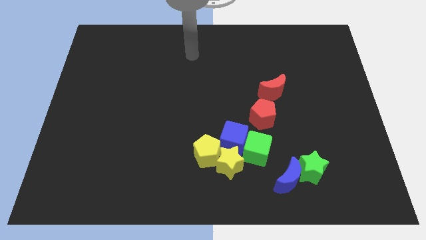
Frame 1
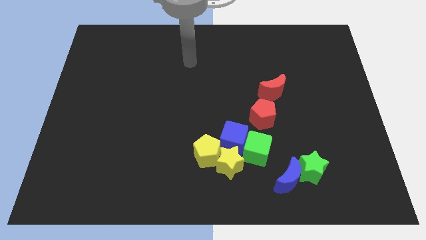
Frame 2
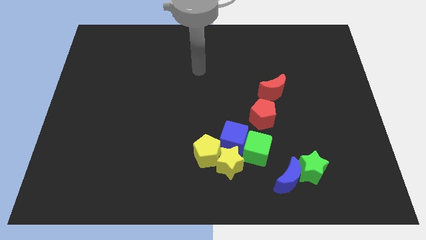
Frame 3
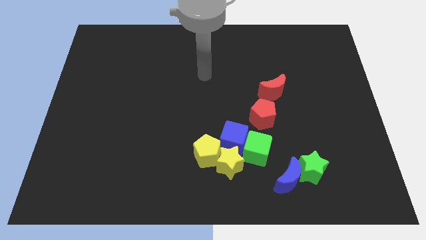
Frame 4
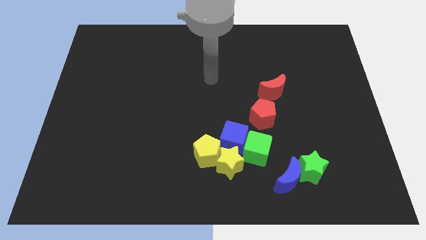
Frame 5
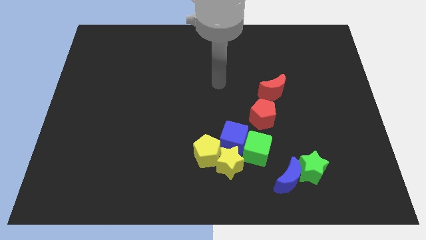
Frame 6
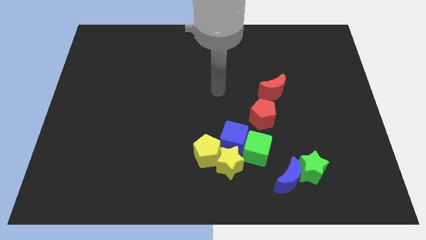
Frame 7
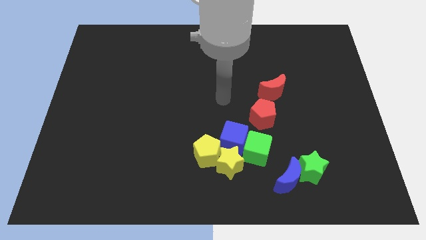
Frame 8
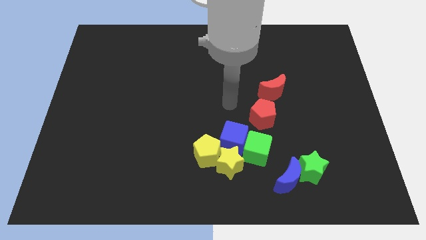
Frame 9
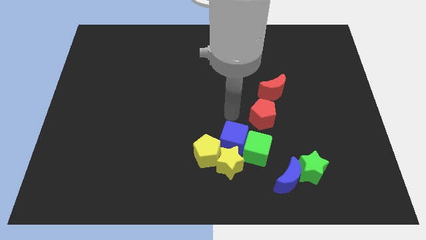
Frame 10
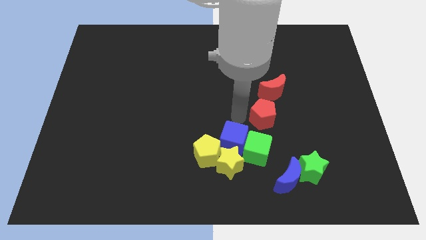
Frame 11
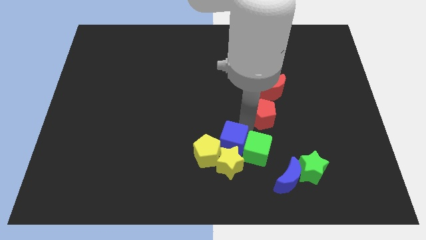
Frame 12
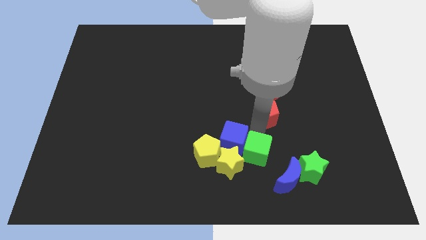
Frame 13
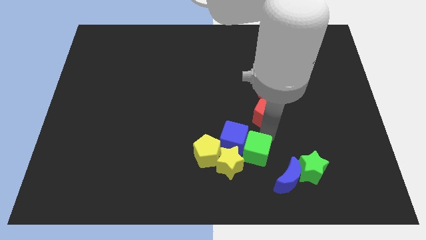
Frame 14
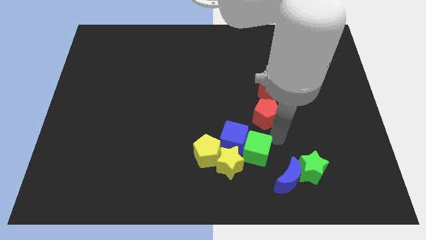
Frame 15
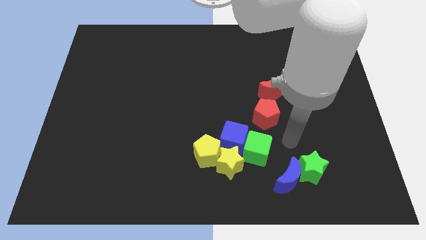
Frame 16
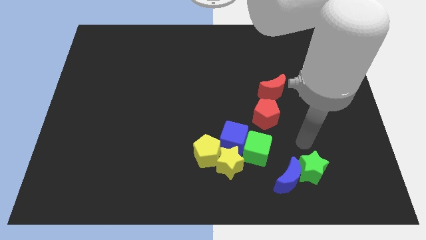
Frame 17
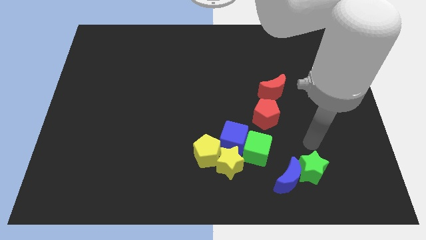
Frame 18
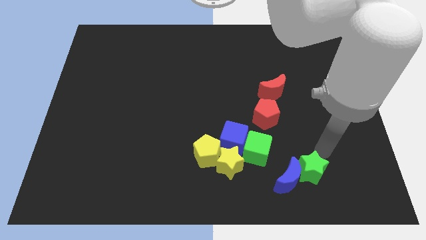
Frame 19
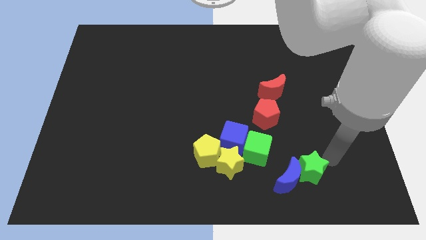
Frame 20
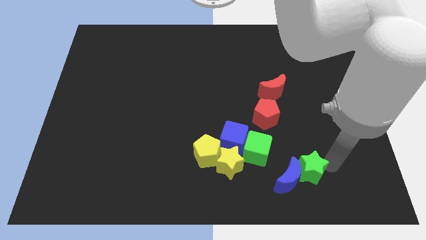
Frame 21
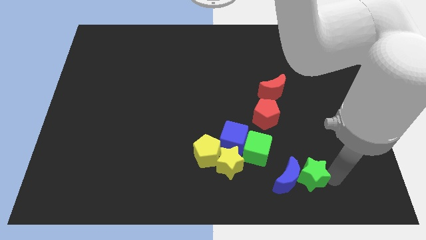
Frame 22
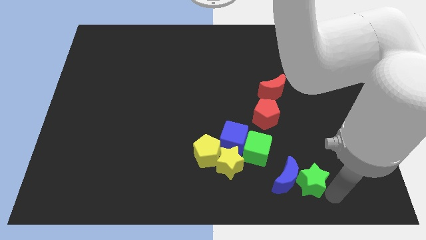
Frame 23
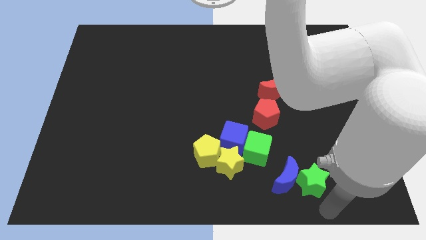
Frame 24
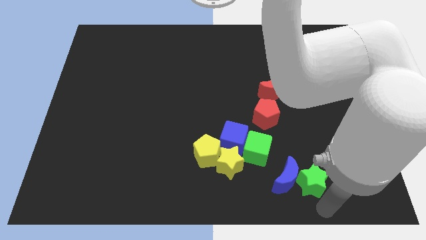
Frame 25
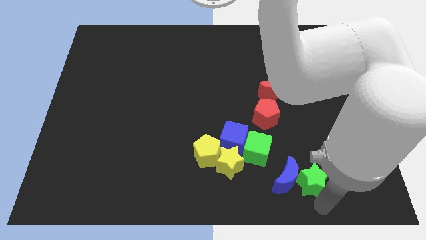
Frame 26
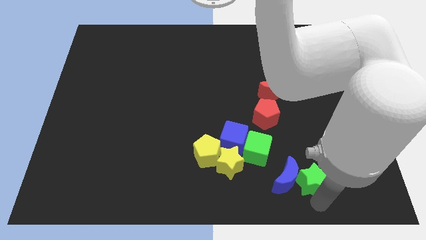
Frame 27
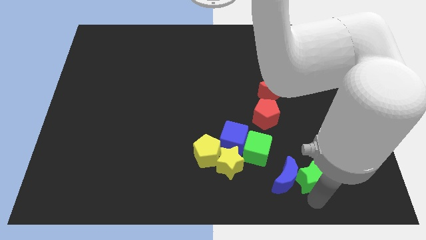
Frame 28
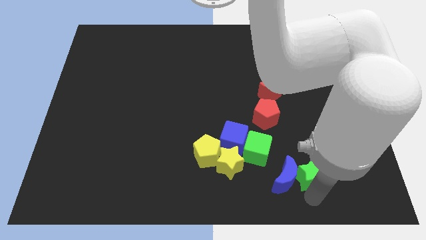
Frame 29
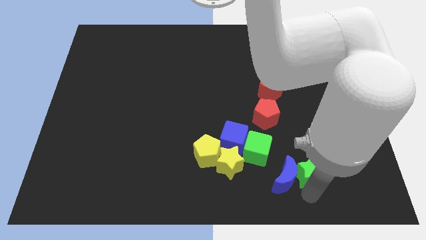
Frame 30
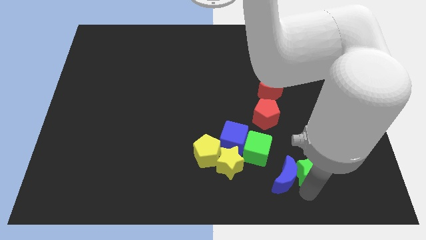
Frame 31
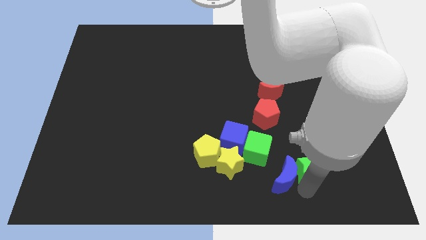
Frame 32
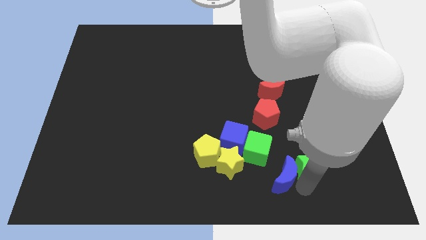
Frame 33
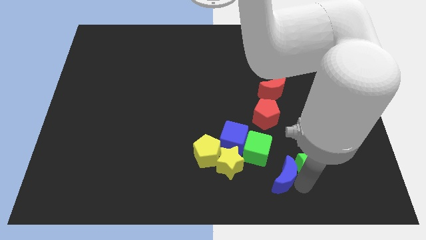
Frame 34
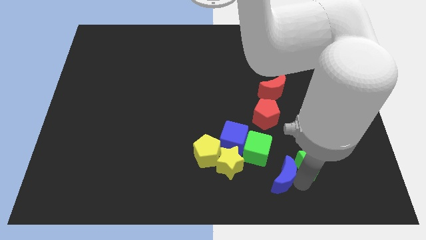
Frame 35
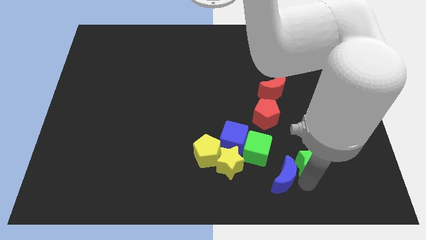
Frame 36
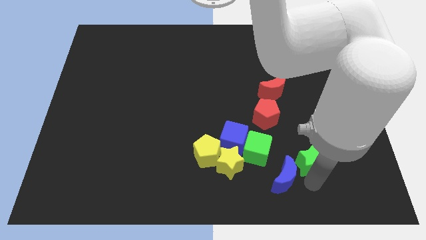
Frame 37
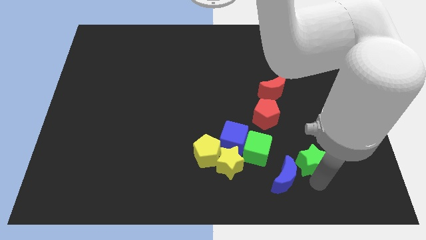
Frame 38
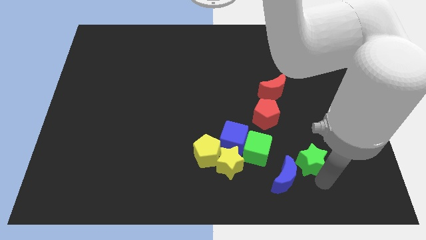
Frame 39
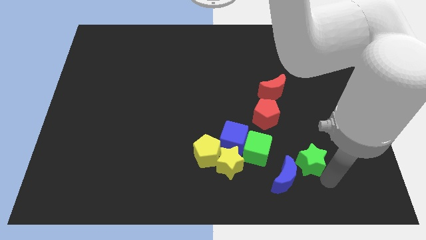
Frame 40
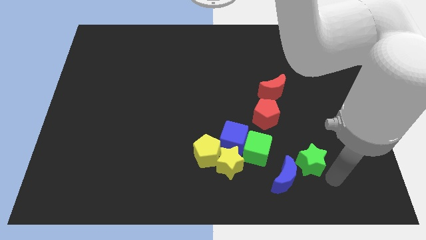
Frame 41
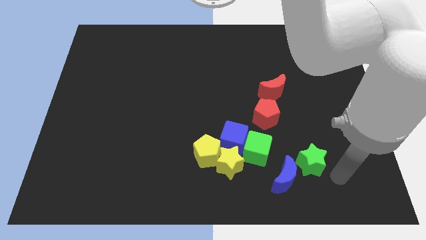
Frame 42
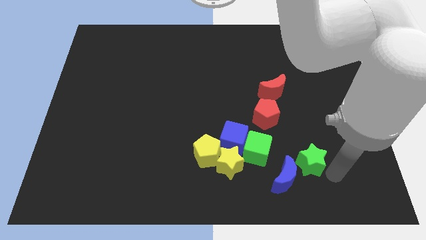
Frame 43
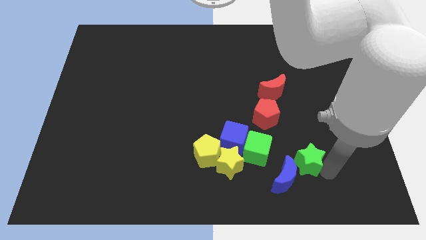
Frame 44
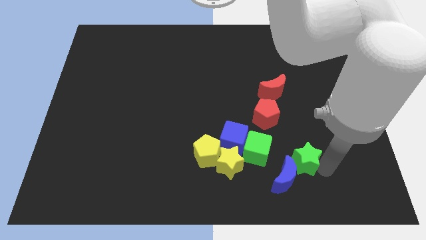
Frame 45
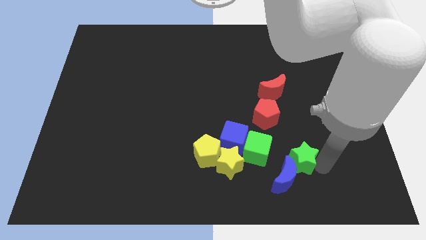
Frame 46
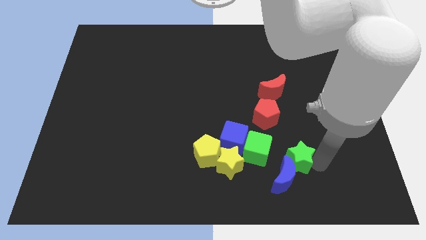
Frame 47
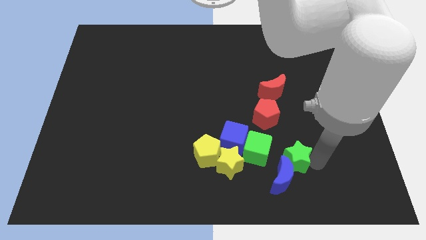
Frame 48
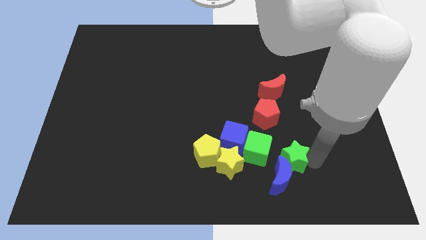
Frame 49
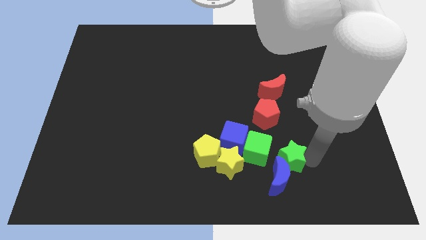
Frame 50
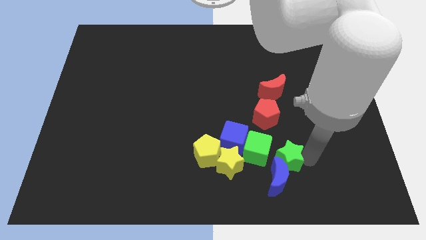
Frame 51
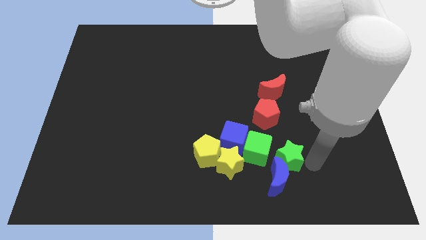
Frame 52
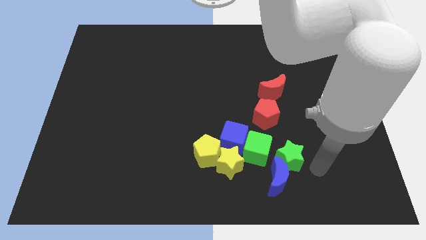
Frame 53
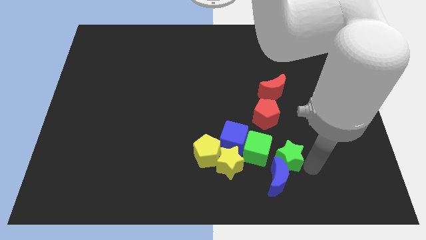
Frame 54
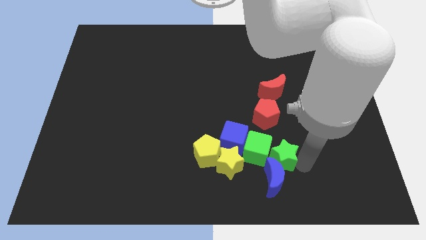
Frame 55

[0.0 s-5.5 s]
push the green star close to the green cube

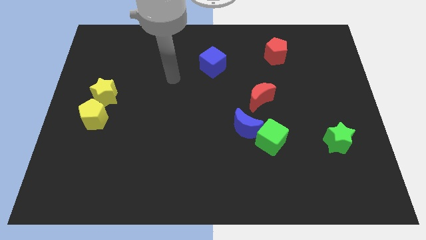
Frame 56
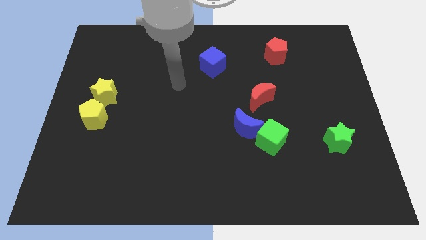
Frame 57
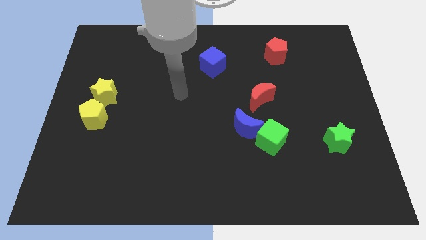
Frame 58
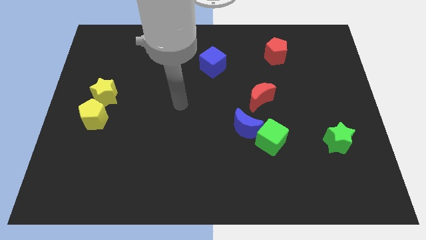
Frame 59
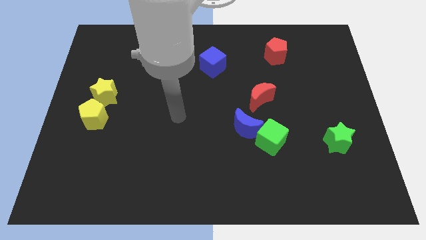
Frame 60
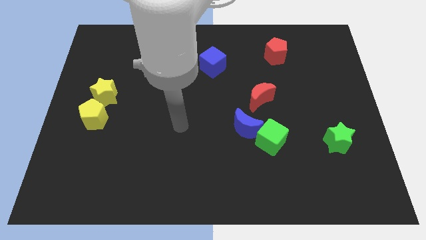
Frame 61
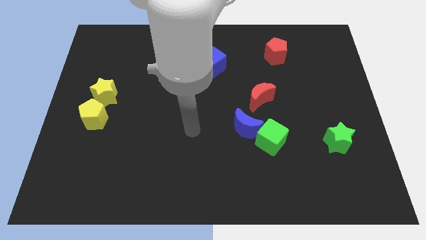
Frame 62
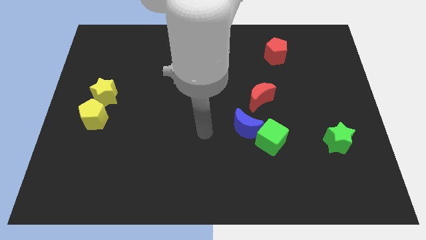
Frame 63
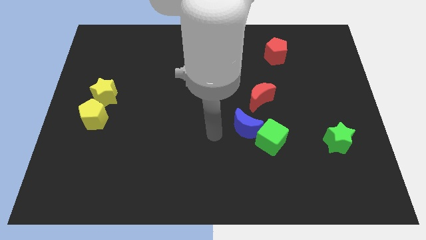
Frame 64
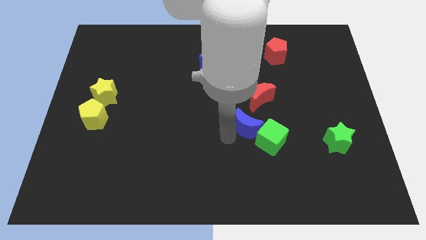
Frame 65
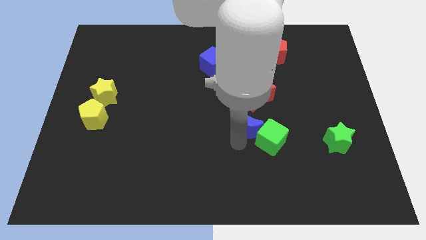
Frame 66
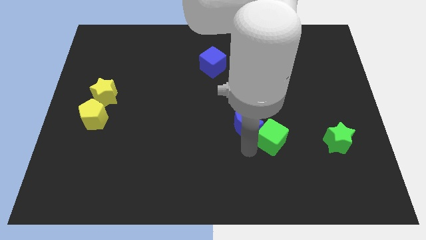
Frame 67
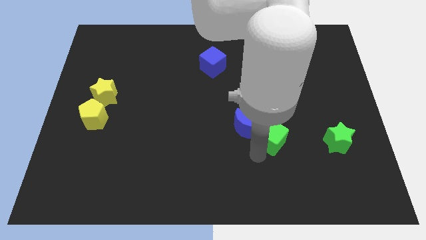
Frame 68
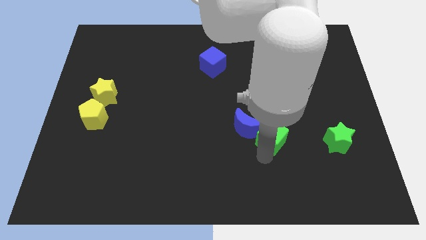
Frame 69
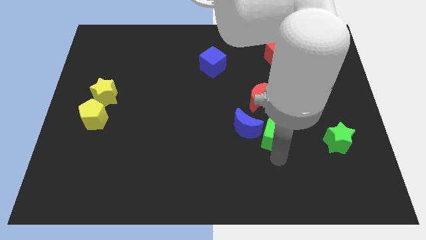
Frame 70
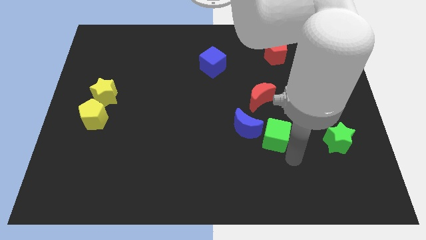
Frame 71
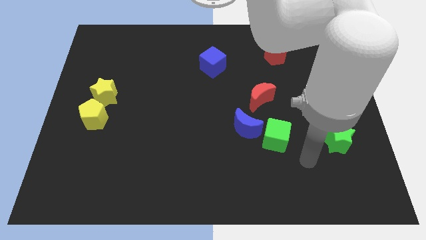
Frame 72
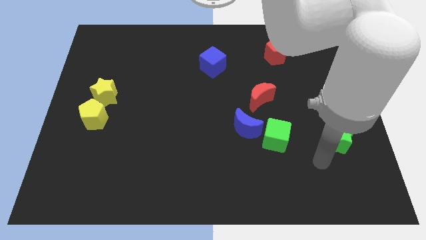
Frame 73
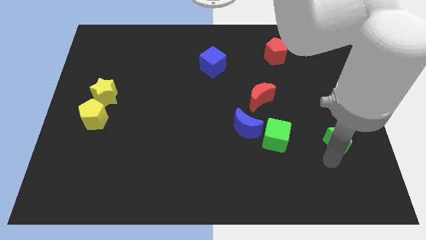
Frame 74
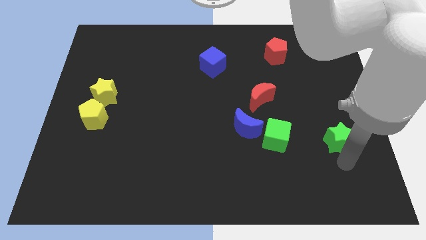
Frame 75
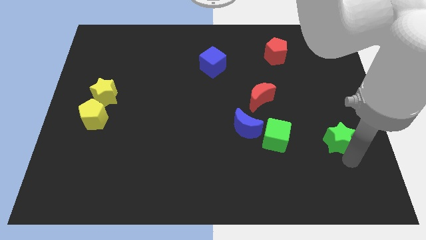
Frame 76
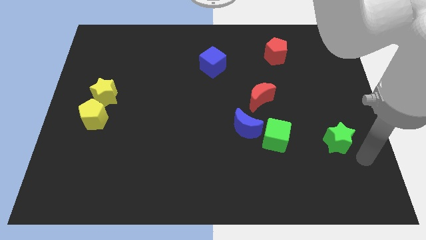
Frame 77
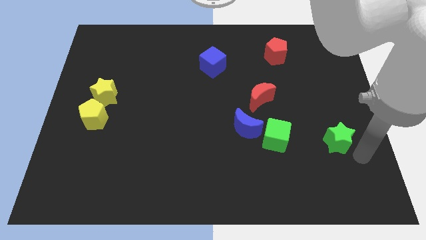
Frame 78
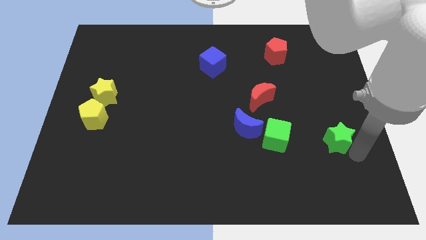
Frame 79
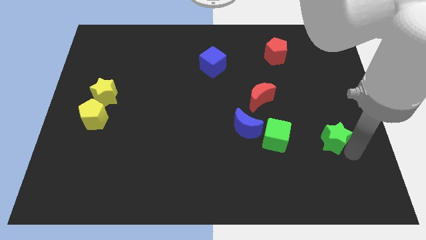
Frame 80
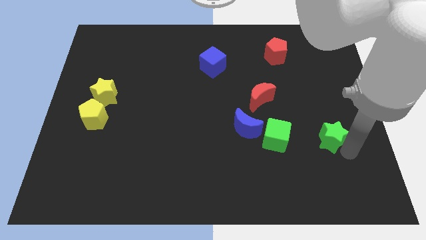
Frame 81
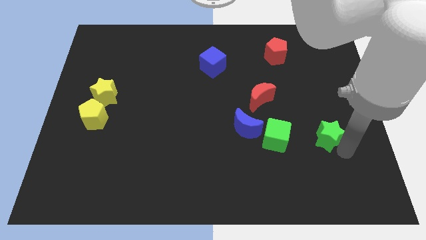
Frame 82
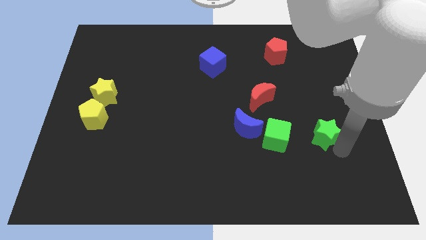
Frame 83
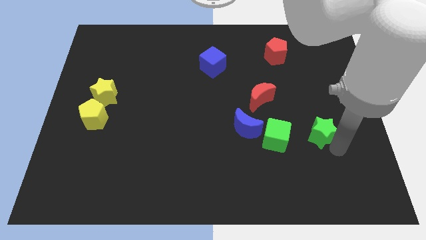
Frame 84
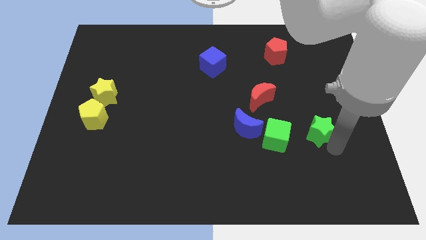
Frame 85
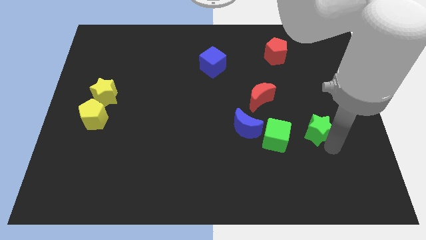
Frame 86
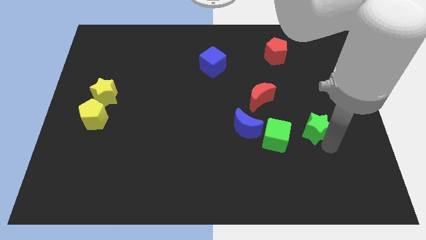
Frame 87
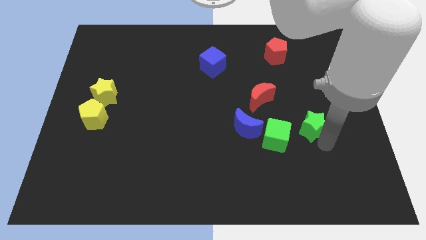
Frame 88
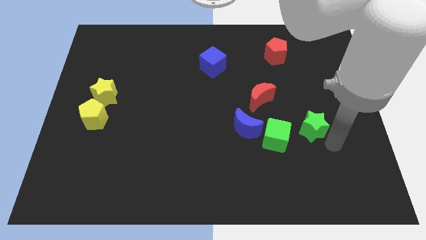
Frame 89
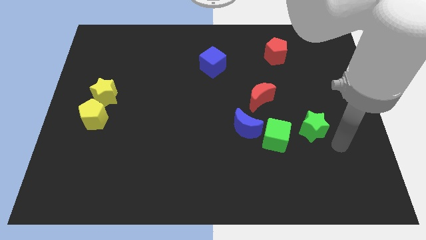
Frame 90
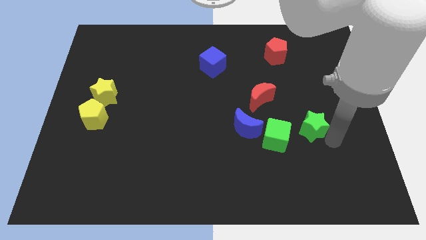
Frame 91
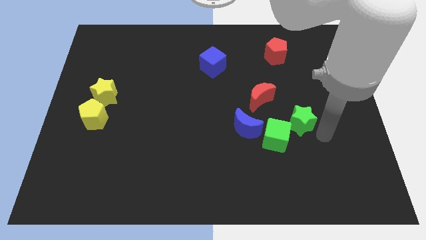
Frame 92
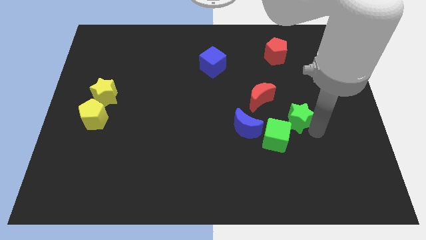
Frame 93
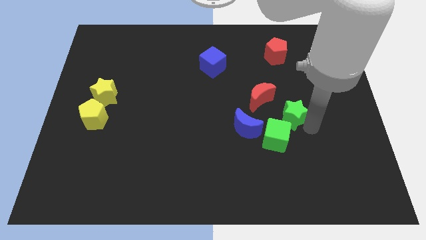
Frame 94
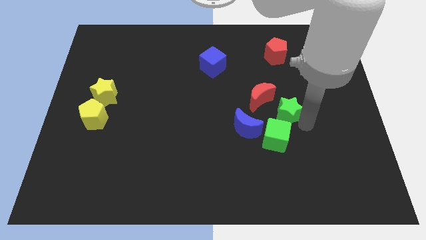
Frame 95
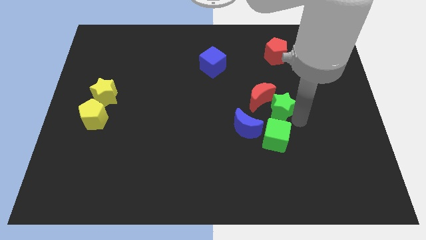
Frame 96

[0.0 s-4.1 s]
put the green star to the red moon
